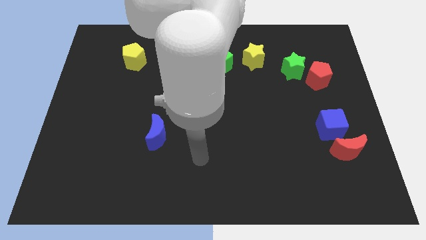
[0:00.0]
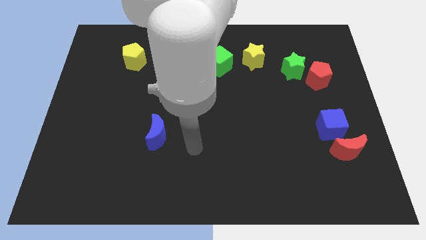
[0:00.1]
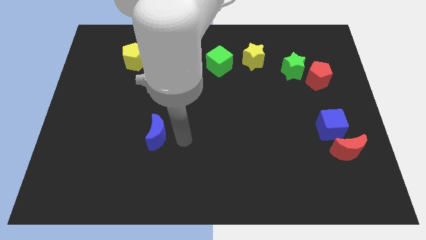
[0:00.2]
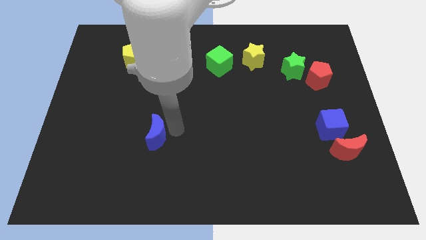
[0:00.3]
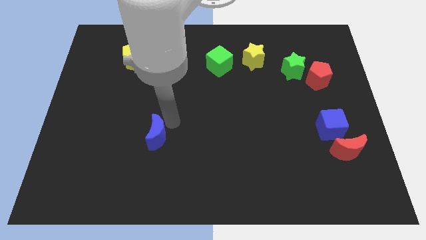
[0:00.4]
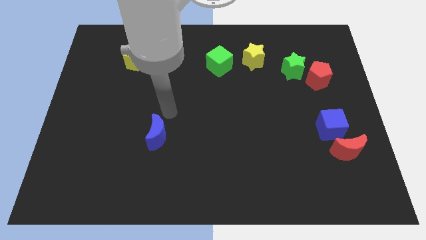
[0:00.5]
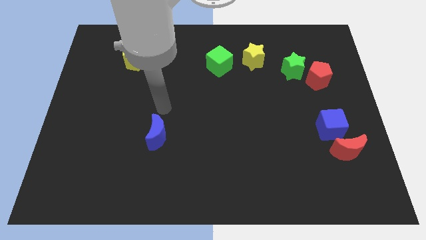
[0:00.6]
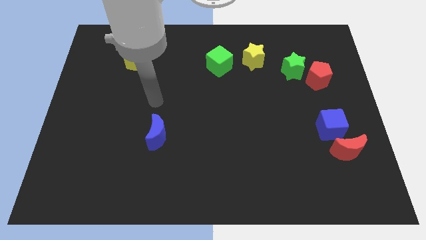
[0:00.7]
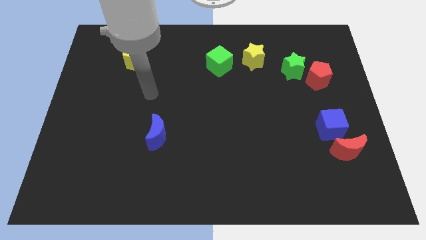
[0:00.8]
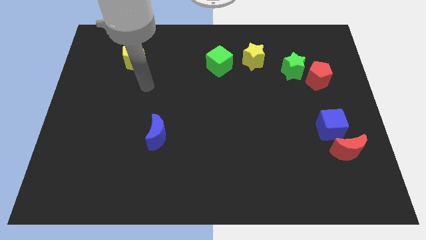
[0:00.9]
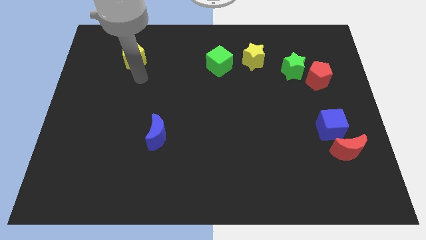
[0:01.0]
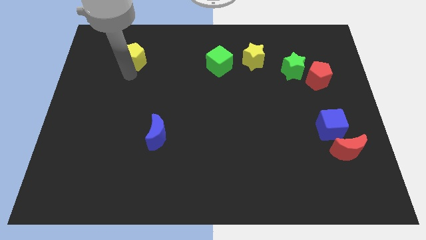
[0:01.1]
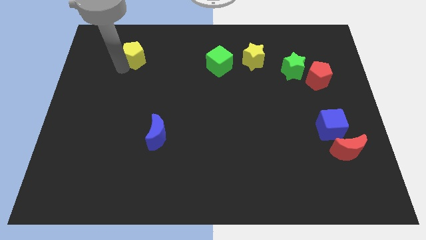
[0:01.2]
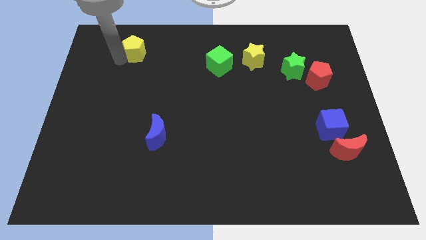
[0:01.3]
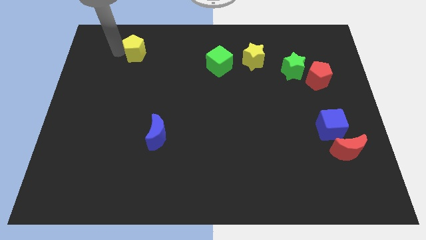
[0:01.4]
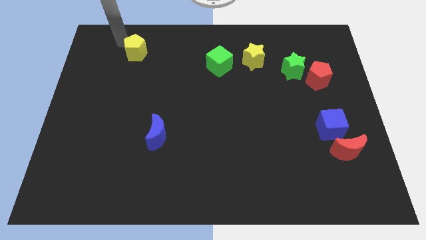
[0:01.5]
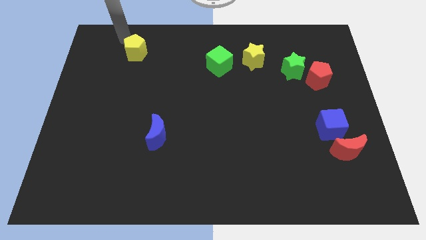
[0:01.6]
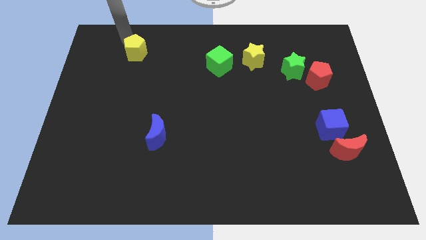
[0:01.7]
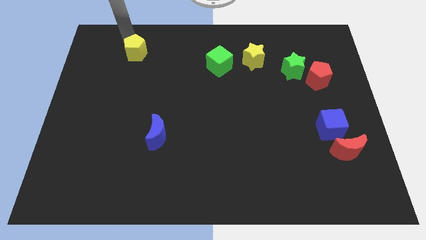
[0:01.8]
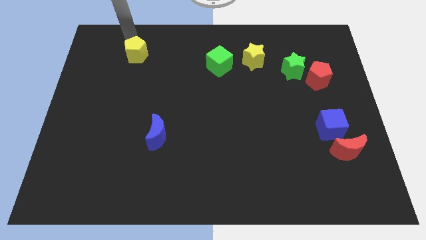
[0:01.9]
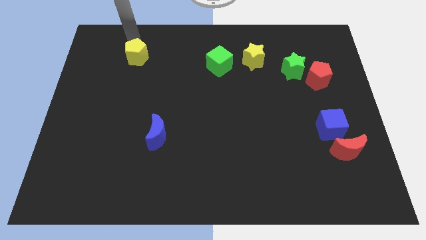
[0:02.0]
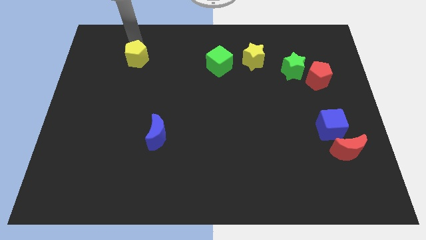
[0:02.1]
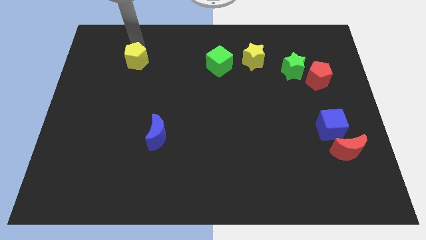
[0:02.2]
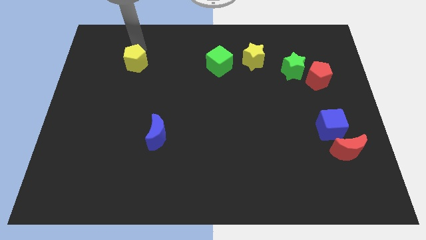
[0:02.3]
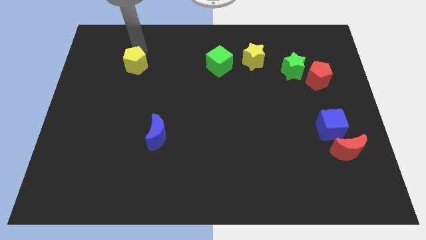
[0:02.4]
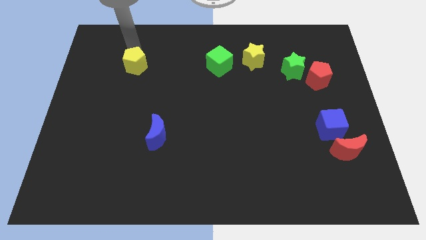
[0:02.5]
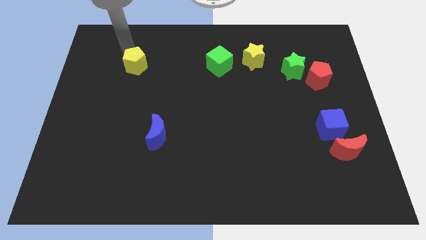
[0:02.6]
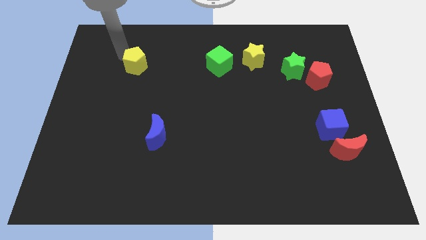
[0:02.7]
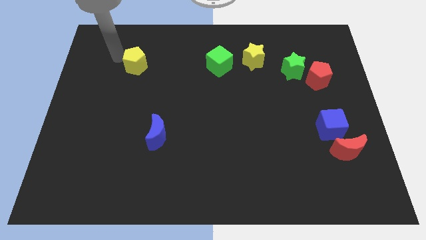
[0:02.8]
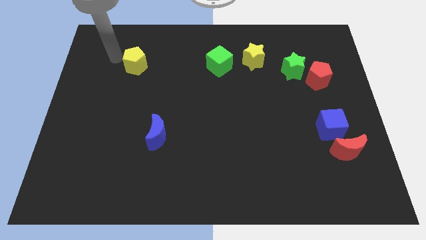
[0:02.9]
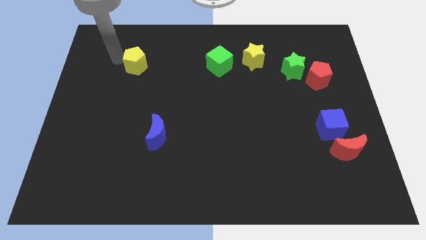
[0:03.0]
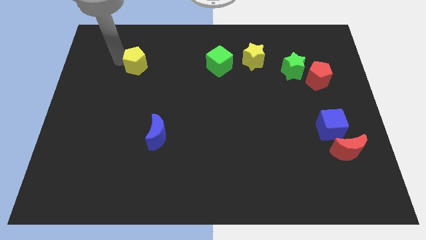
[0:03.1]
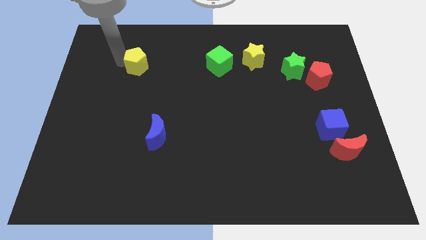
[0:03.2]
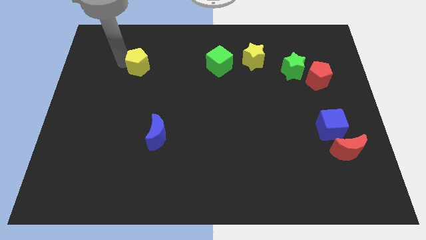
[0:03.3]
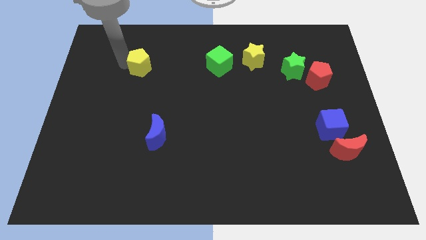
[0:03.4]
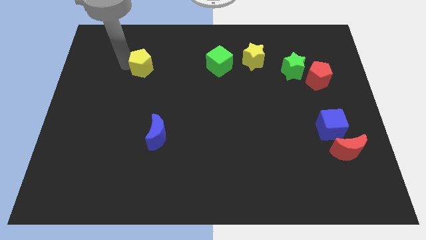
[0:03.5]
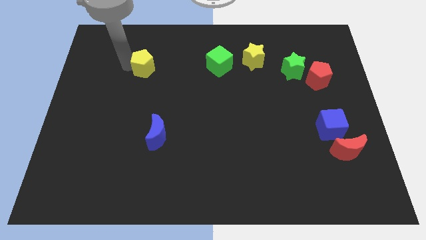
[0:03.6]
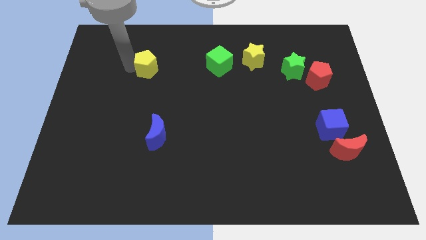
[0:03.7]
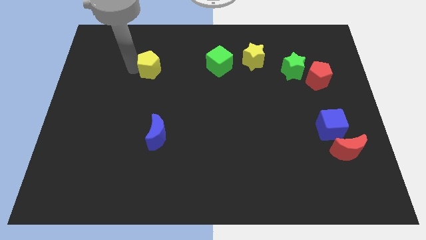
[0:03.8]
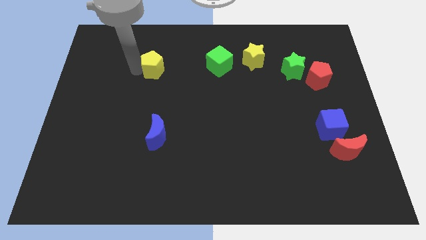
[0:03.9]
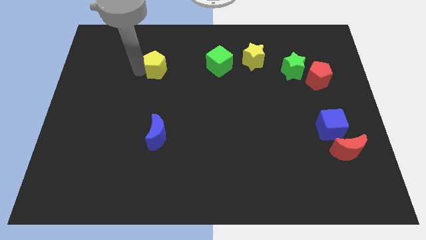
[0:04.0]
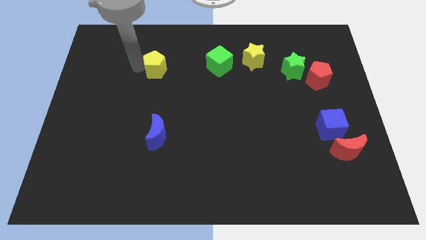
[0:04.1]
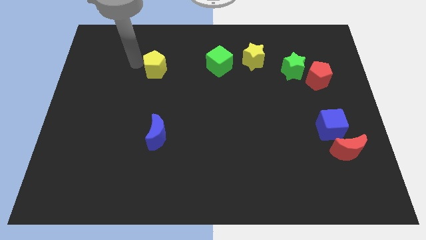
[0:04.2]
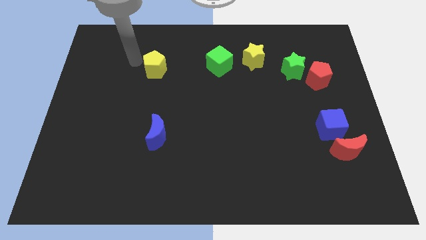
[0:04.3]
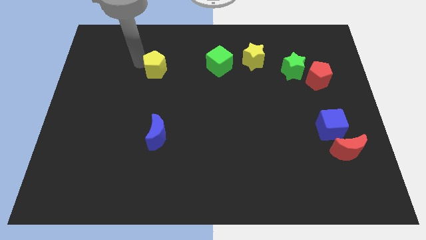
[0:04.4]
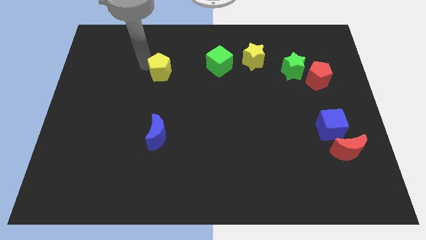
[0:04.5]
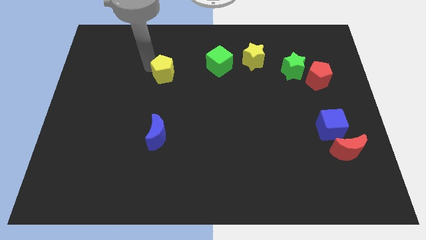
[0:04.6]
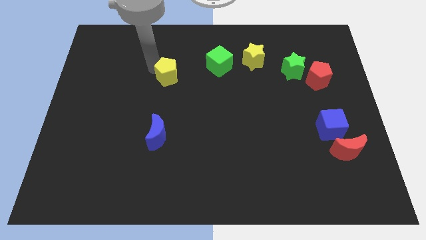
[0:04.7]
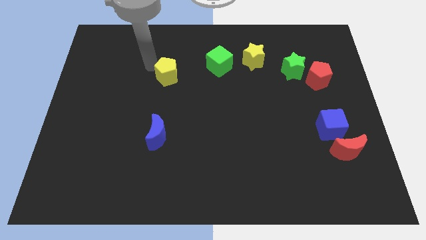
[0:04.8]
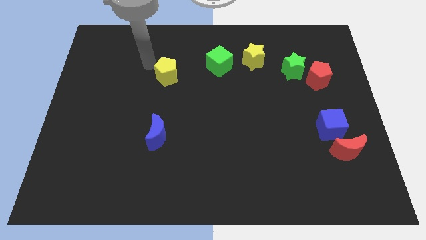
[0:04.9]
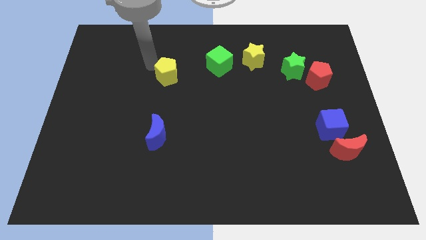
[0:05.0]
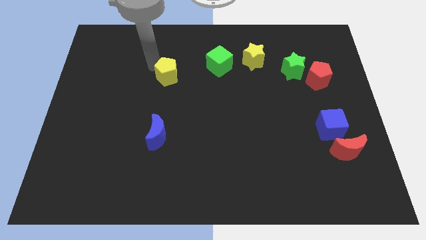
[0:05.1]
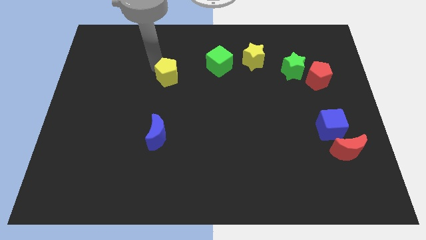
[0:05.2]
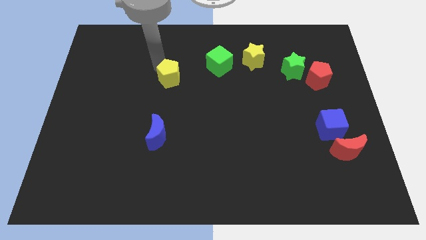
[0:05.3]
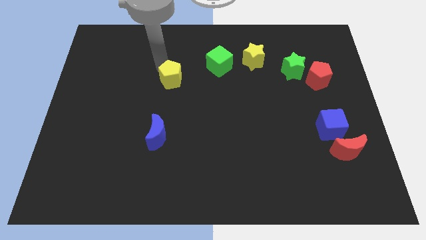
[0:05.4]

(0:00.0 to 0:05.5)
push the yellow pentagon to the center

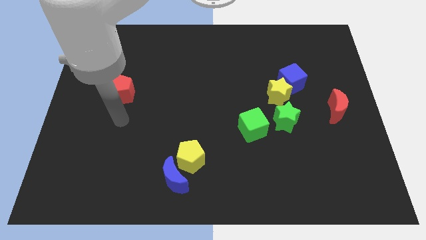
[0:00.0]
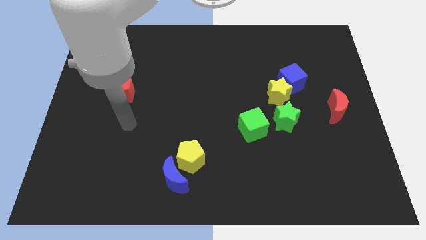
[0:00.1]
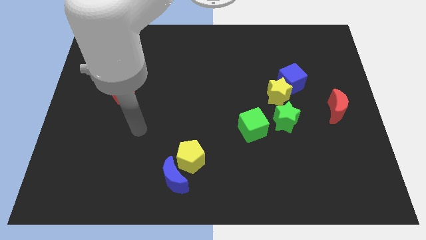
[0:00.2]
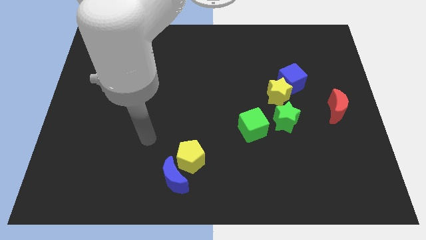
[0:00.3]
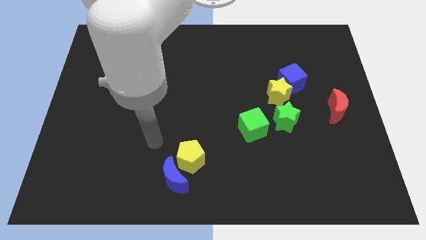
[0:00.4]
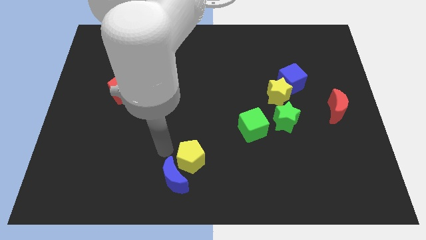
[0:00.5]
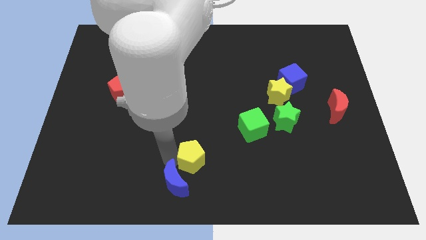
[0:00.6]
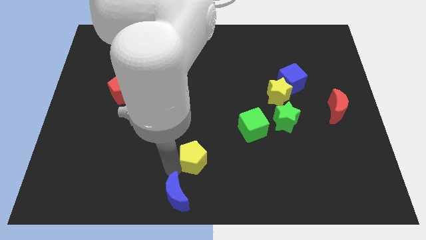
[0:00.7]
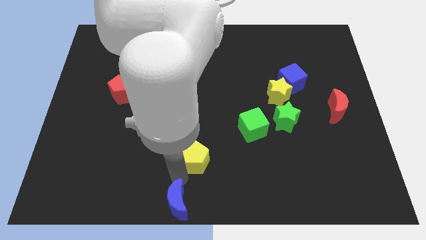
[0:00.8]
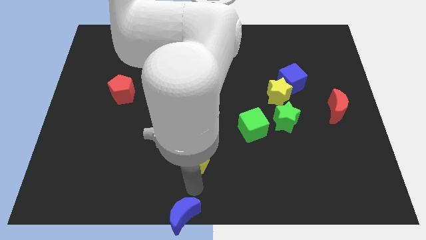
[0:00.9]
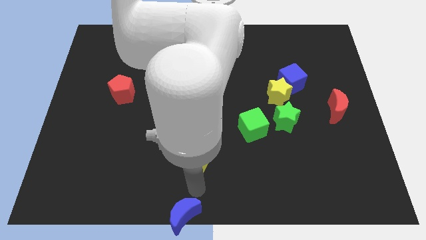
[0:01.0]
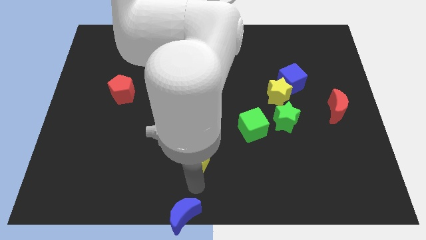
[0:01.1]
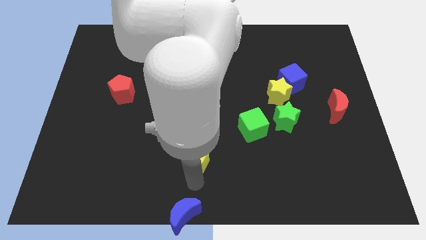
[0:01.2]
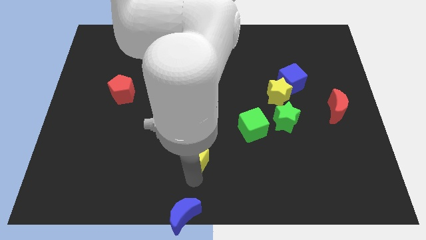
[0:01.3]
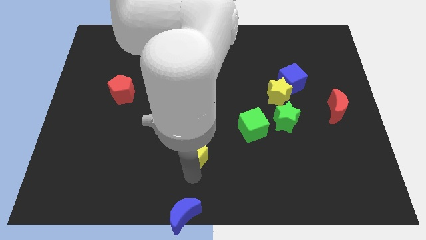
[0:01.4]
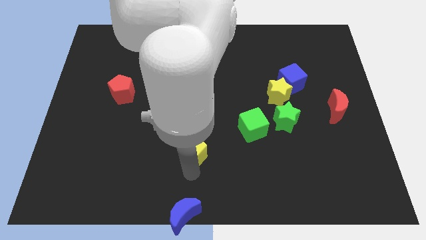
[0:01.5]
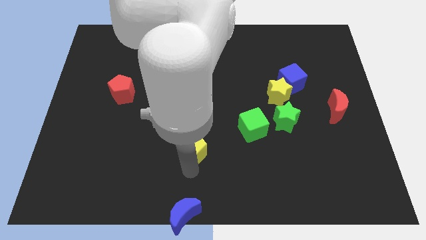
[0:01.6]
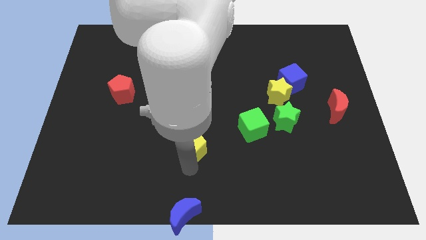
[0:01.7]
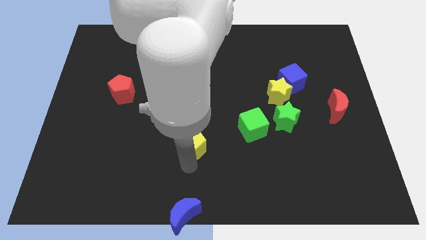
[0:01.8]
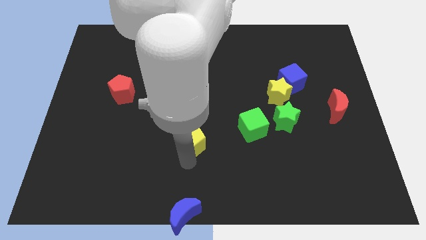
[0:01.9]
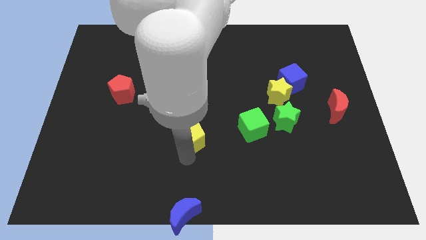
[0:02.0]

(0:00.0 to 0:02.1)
move the yellow pentagon to the middle of the board

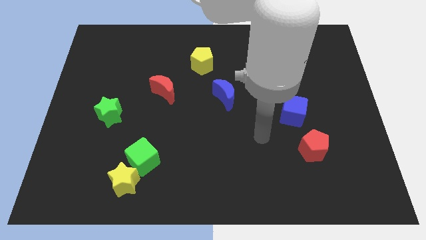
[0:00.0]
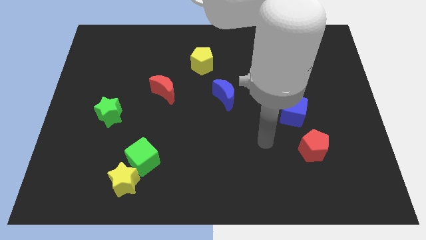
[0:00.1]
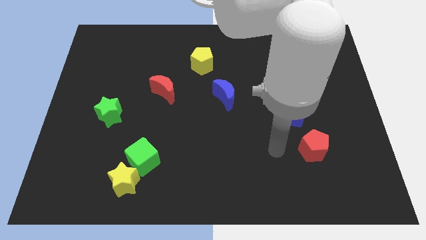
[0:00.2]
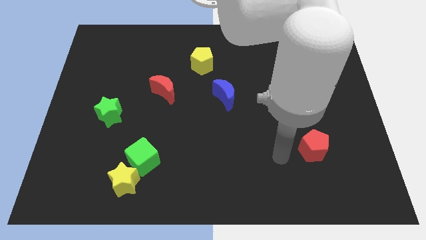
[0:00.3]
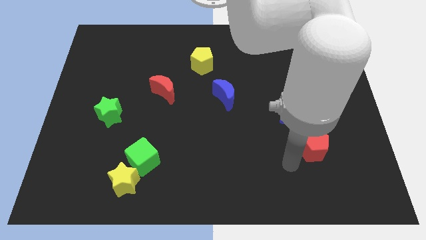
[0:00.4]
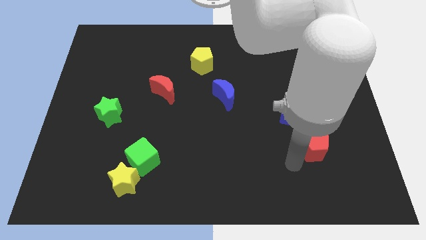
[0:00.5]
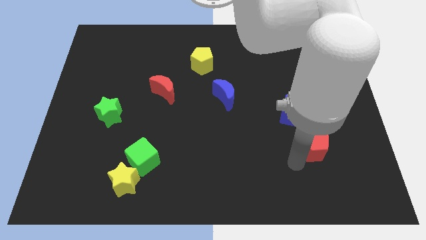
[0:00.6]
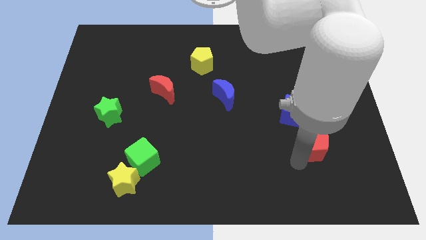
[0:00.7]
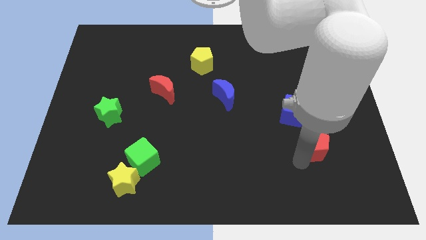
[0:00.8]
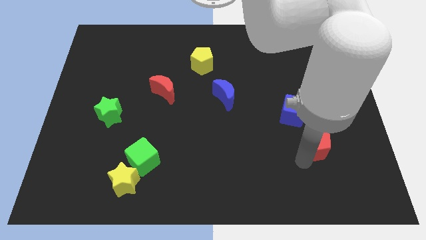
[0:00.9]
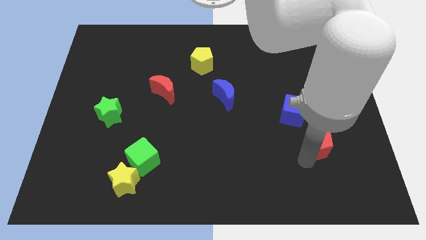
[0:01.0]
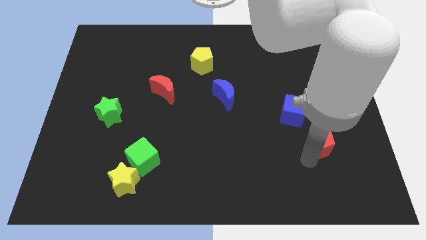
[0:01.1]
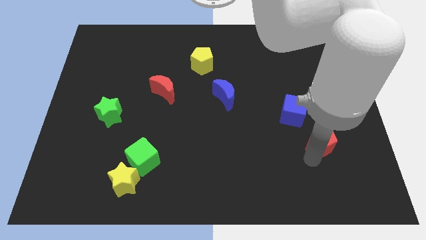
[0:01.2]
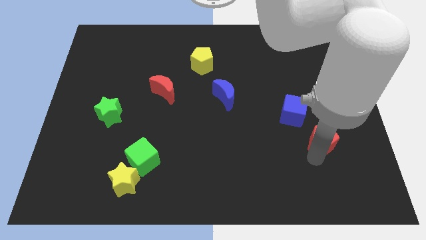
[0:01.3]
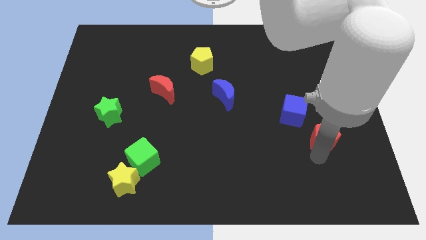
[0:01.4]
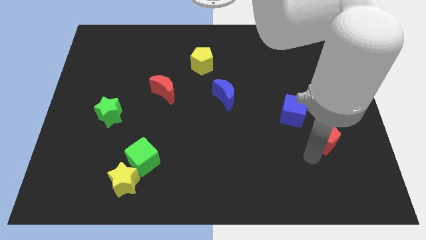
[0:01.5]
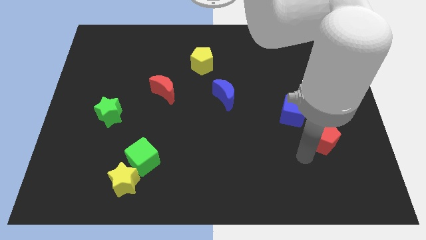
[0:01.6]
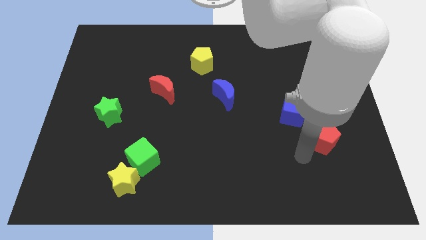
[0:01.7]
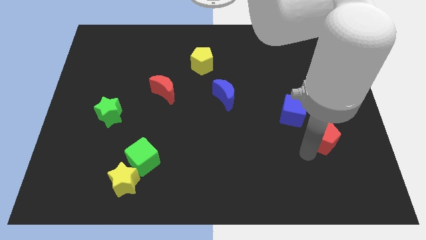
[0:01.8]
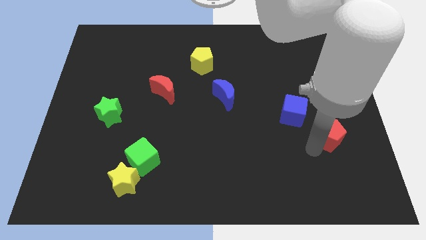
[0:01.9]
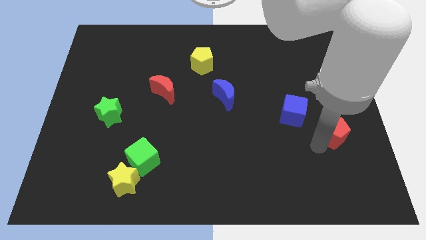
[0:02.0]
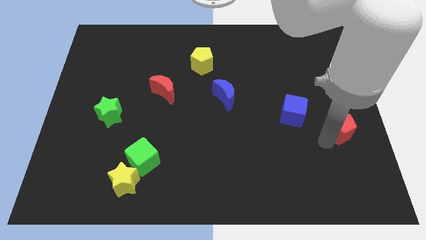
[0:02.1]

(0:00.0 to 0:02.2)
put the red pentagon to the right side of the board
